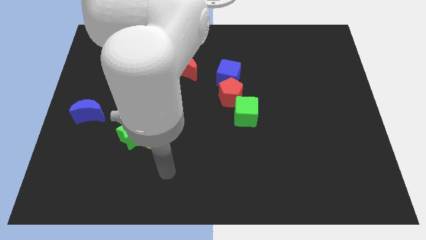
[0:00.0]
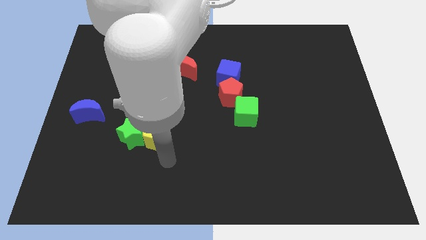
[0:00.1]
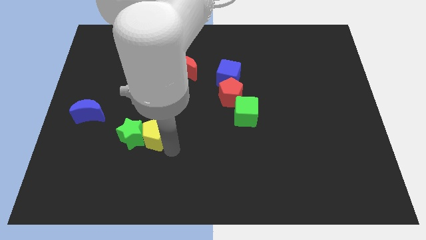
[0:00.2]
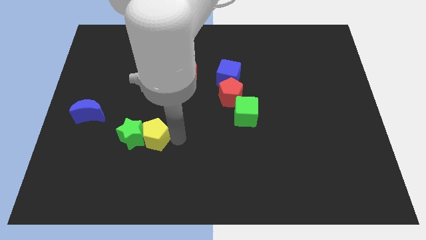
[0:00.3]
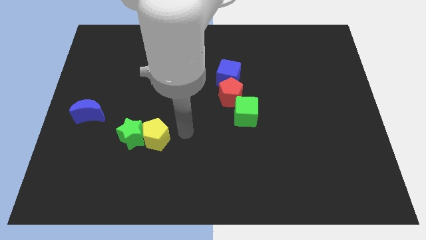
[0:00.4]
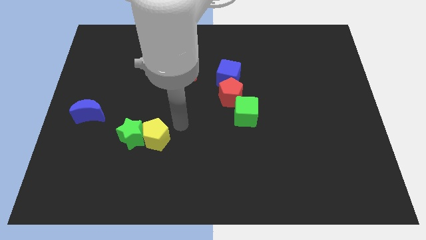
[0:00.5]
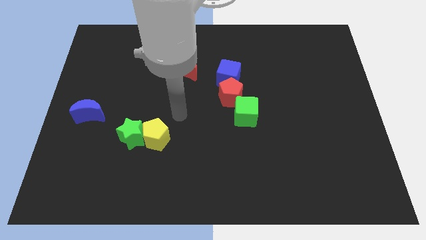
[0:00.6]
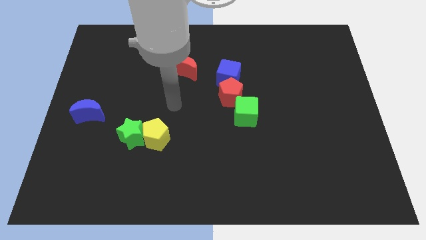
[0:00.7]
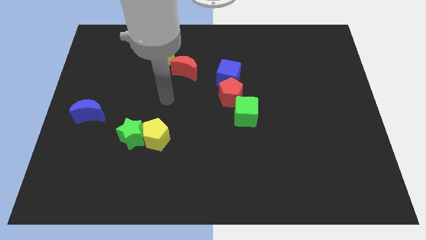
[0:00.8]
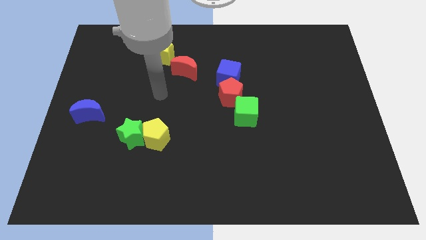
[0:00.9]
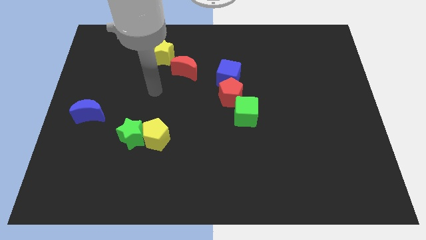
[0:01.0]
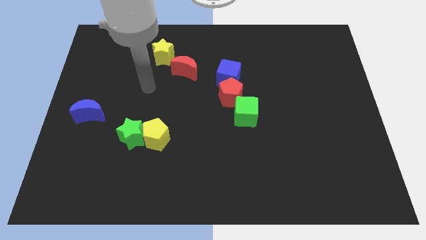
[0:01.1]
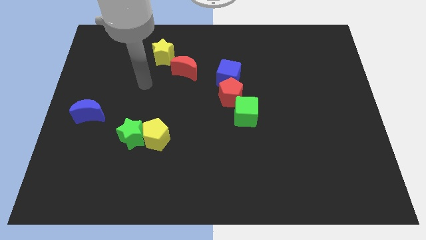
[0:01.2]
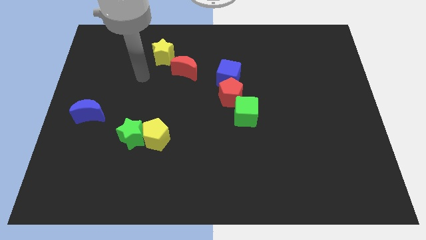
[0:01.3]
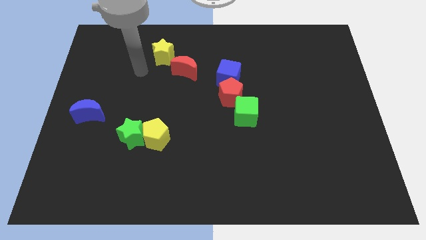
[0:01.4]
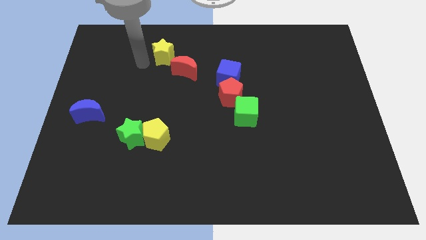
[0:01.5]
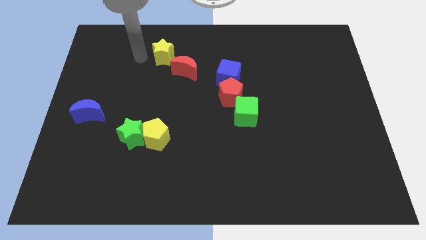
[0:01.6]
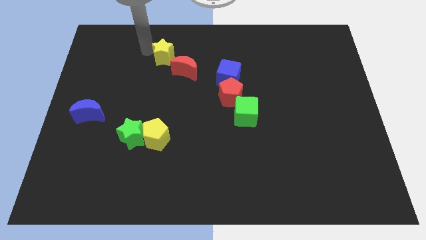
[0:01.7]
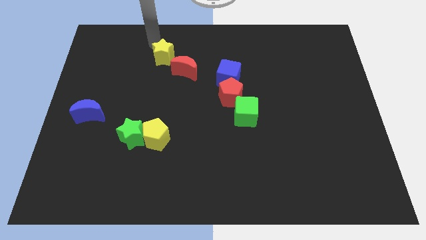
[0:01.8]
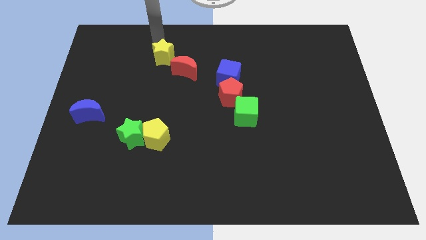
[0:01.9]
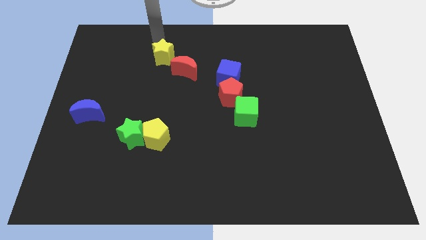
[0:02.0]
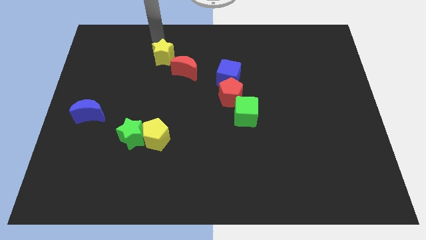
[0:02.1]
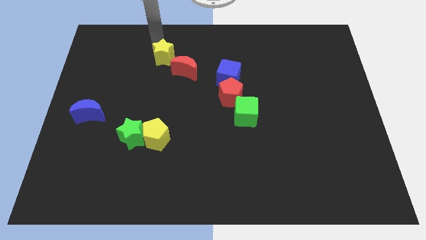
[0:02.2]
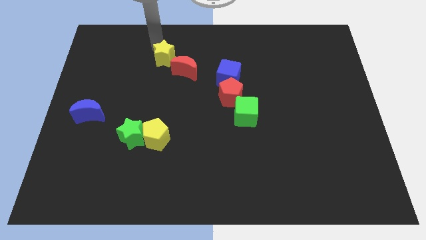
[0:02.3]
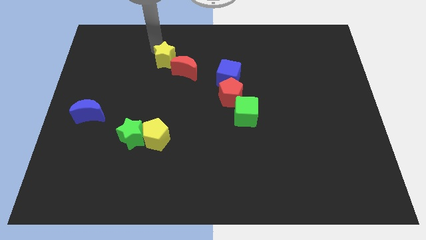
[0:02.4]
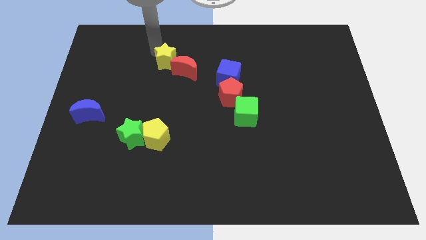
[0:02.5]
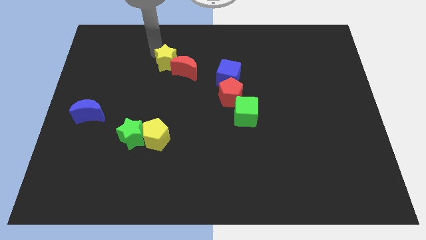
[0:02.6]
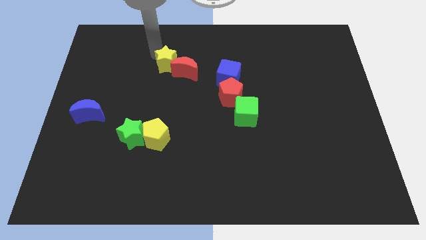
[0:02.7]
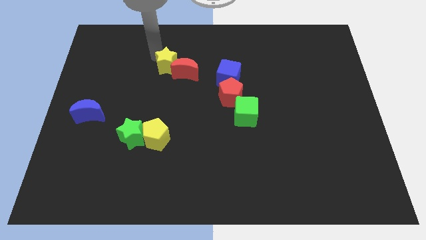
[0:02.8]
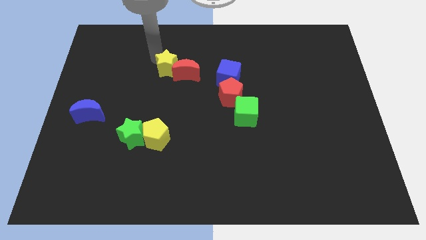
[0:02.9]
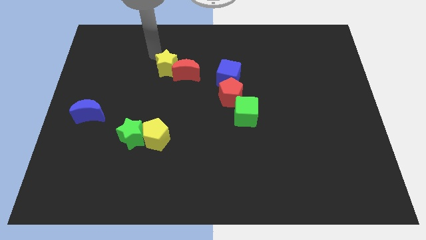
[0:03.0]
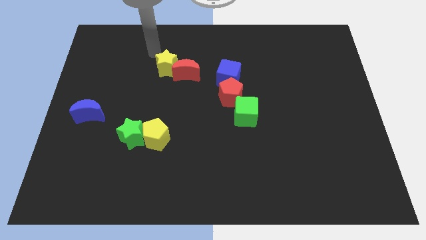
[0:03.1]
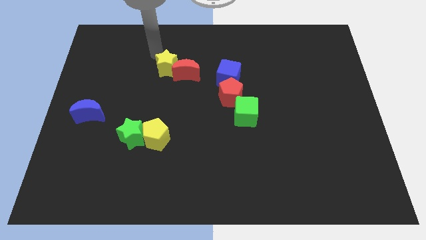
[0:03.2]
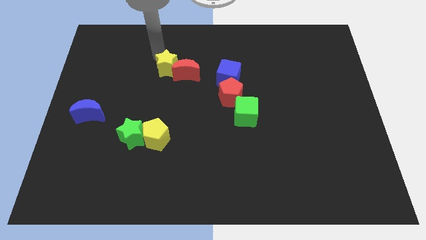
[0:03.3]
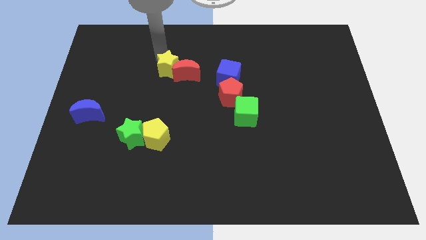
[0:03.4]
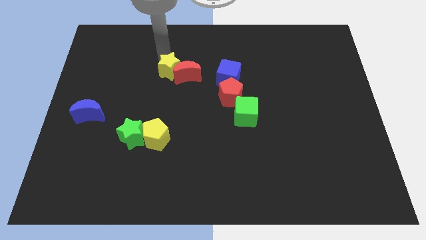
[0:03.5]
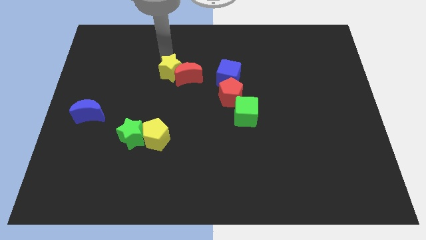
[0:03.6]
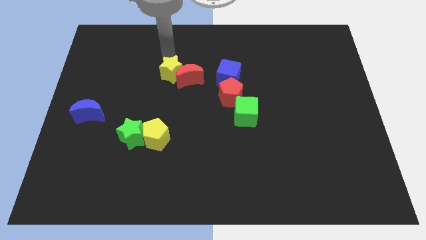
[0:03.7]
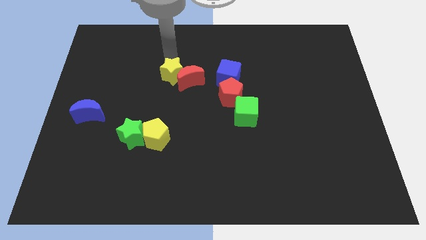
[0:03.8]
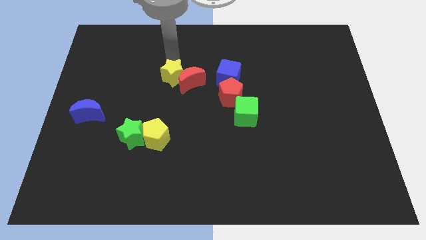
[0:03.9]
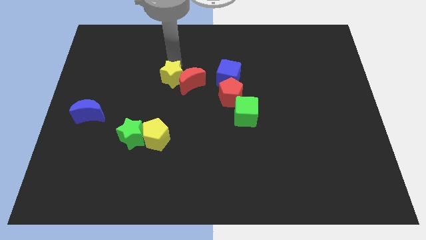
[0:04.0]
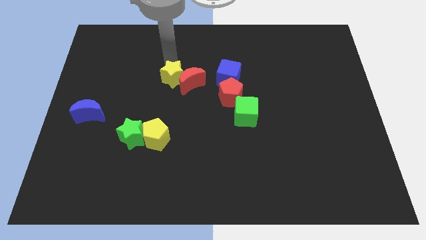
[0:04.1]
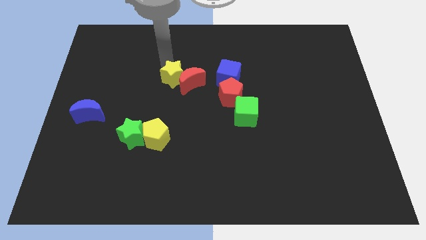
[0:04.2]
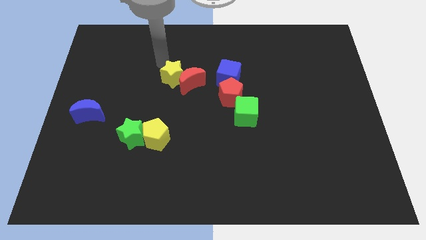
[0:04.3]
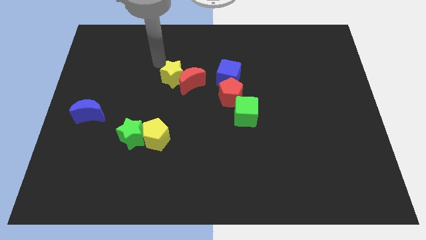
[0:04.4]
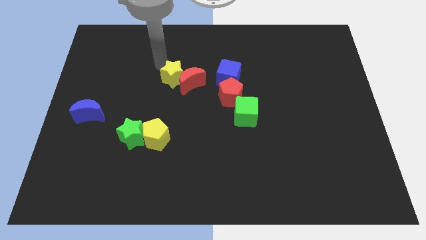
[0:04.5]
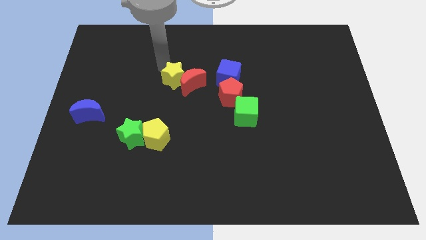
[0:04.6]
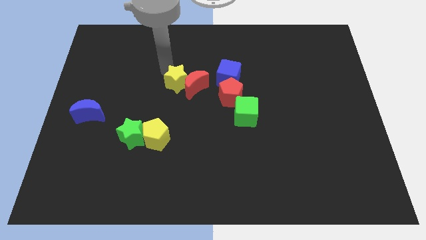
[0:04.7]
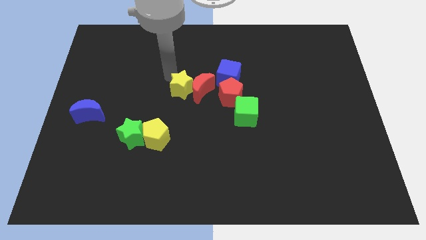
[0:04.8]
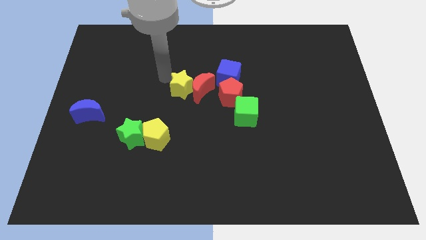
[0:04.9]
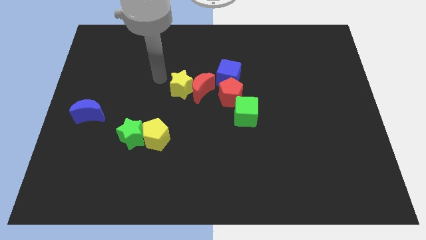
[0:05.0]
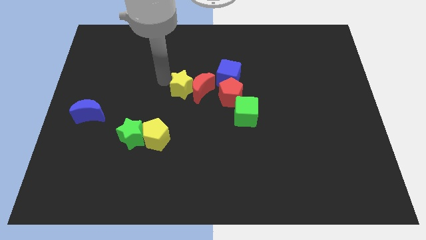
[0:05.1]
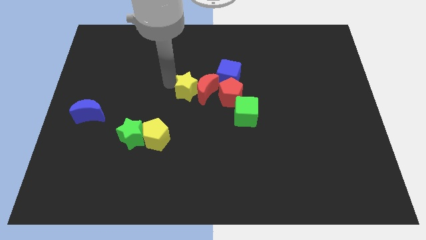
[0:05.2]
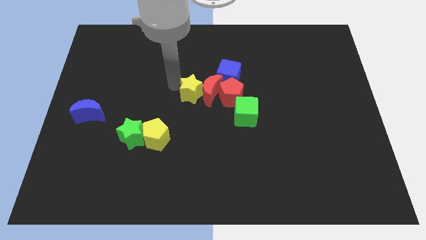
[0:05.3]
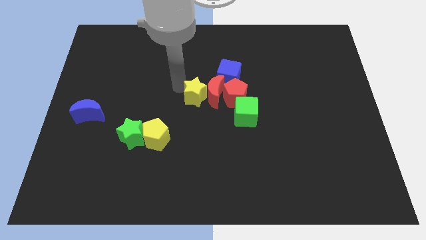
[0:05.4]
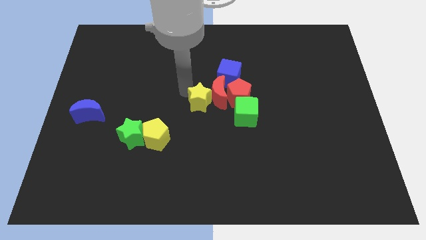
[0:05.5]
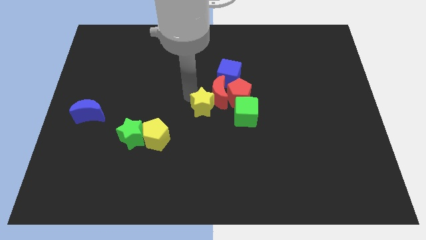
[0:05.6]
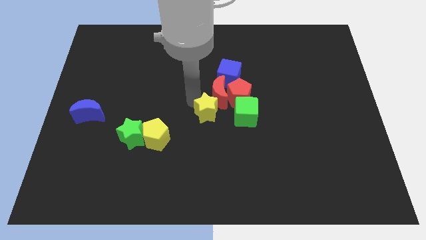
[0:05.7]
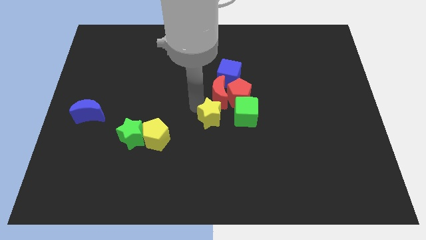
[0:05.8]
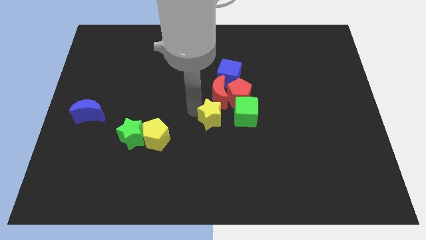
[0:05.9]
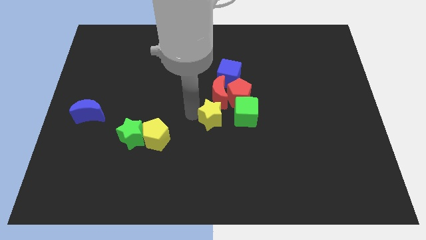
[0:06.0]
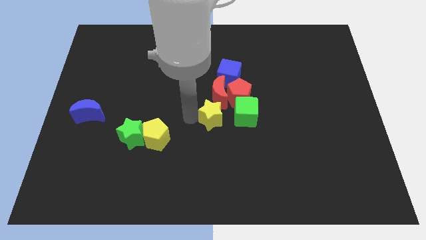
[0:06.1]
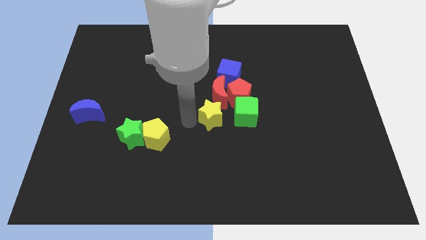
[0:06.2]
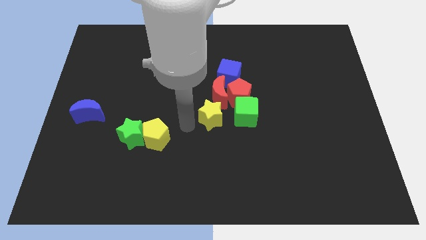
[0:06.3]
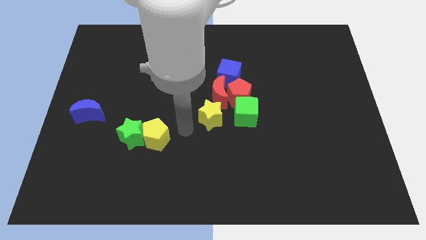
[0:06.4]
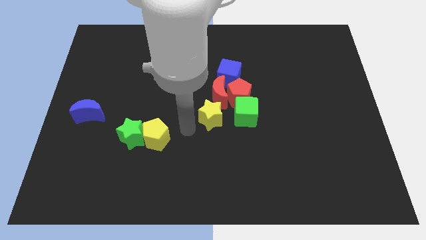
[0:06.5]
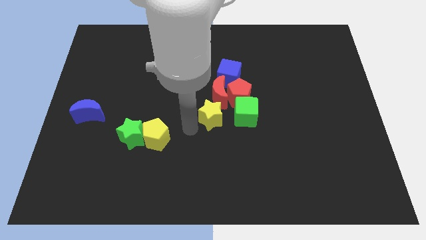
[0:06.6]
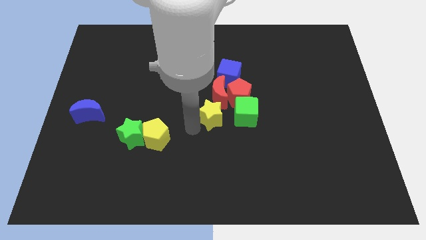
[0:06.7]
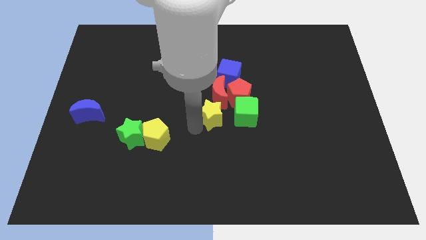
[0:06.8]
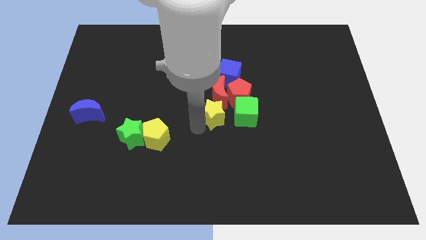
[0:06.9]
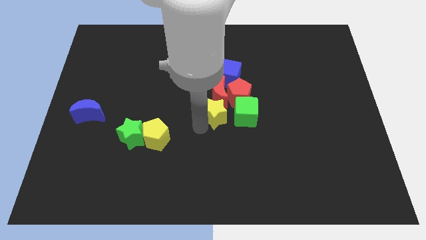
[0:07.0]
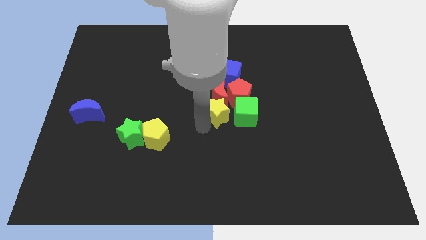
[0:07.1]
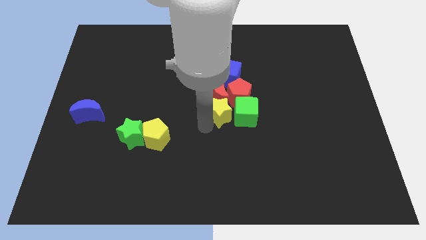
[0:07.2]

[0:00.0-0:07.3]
put the yellow star towards the green cube
